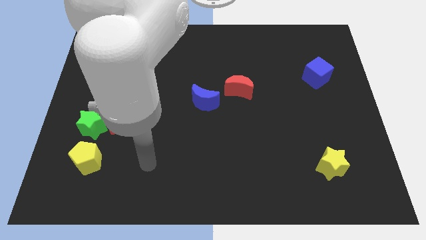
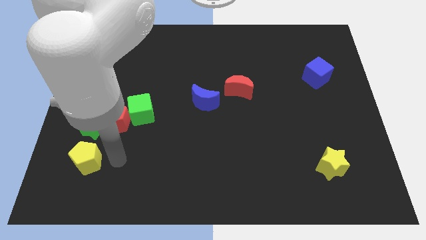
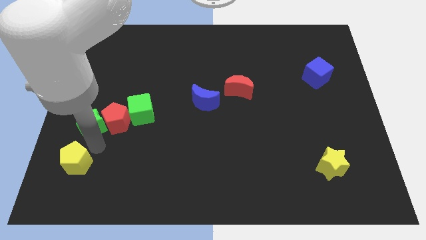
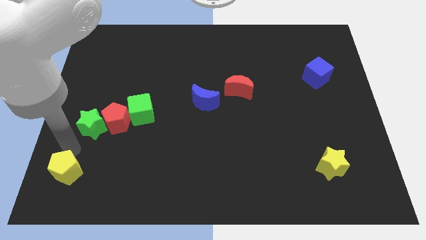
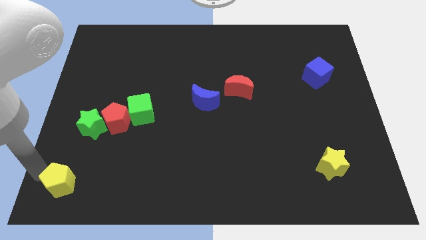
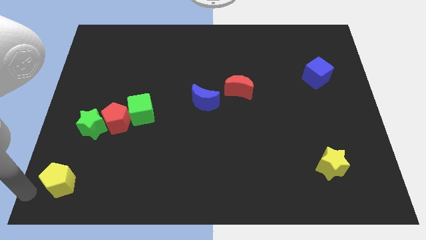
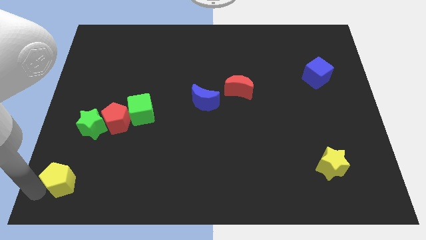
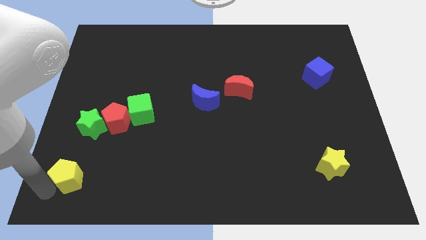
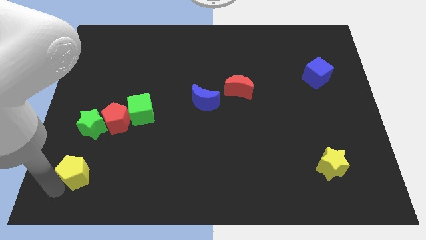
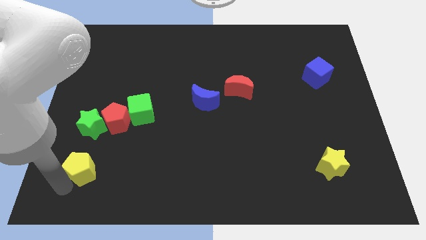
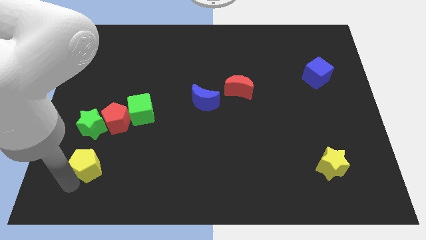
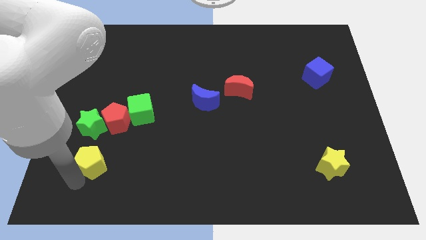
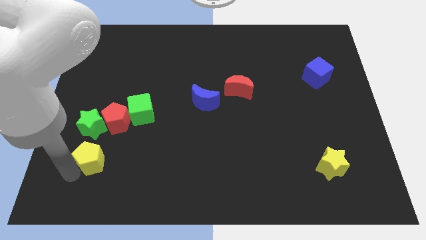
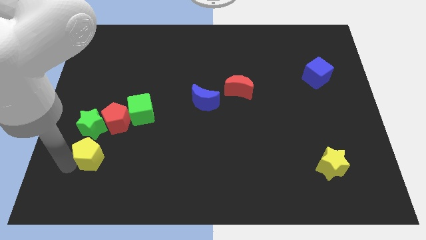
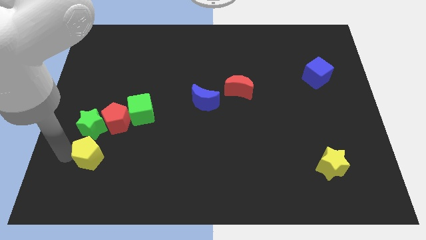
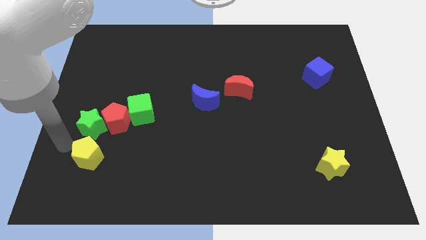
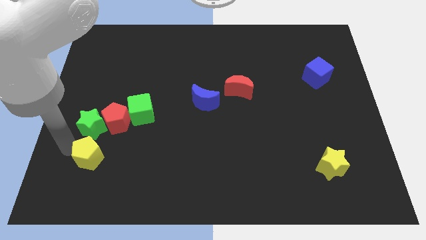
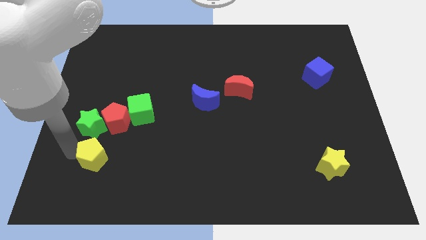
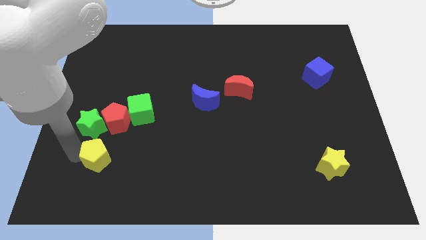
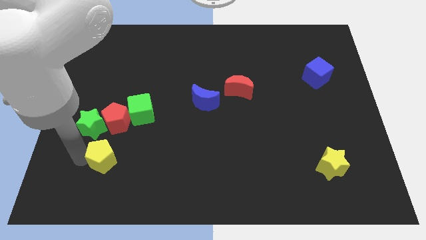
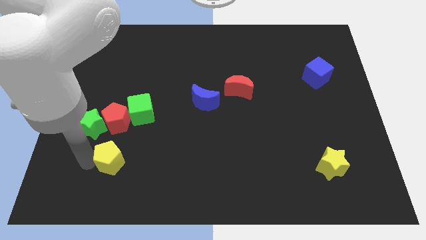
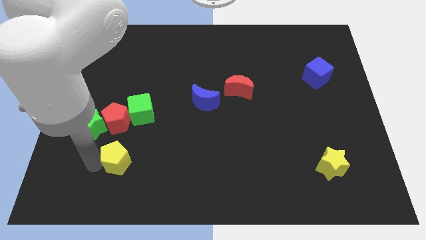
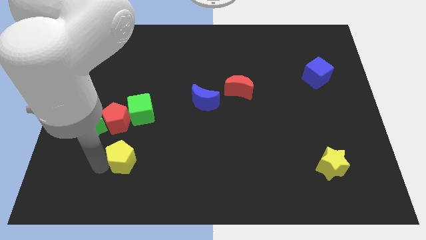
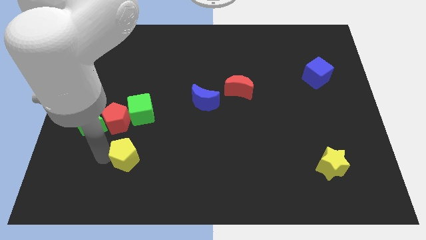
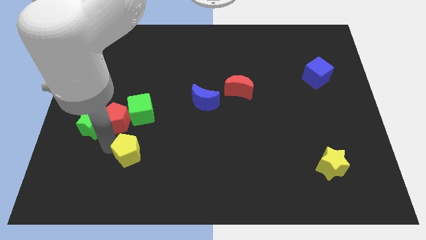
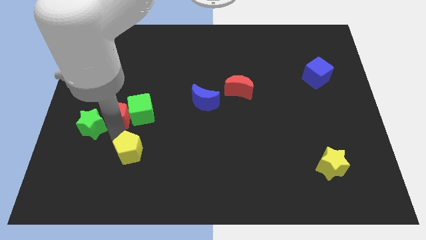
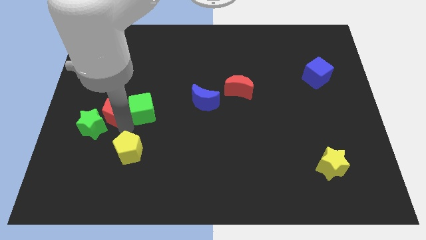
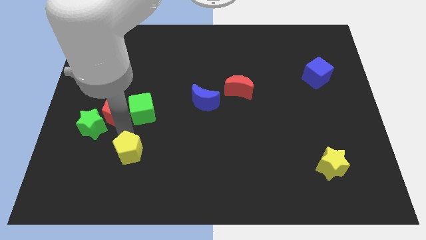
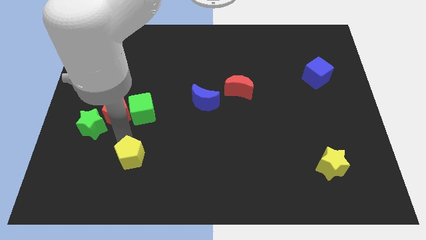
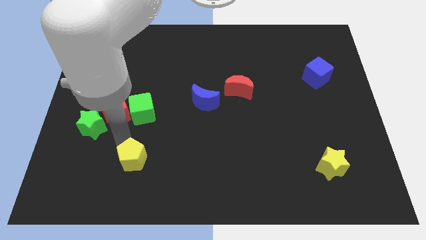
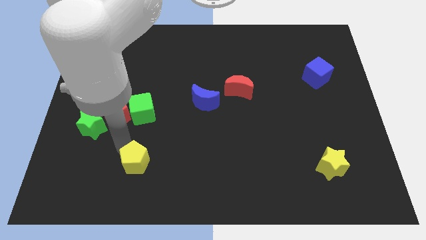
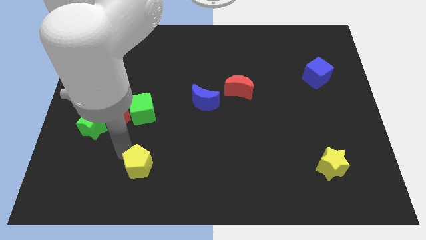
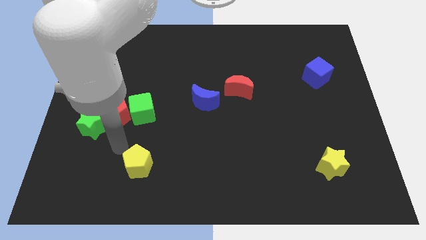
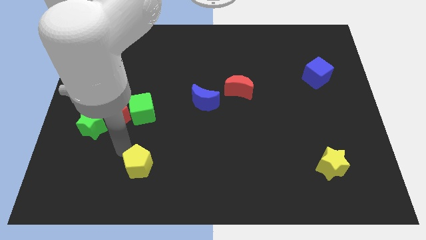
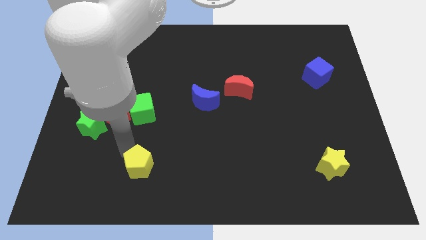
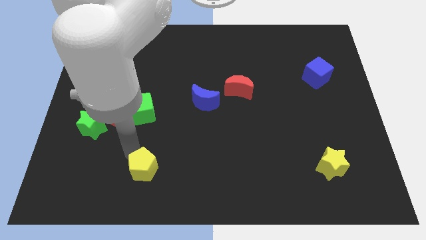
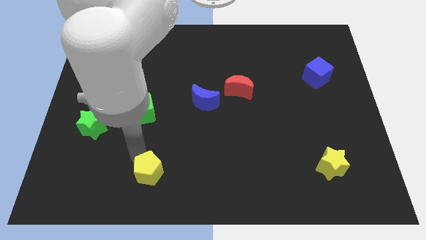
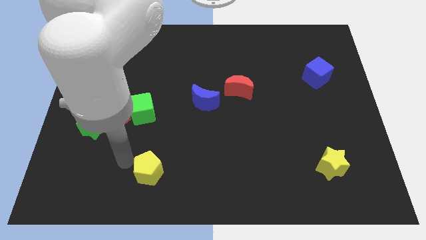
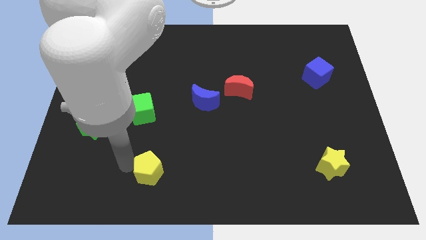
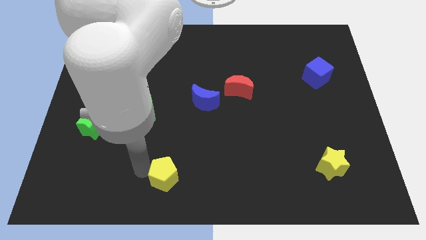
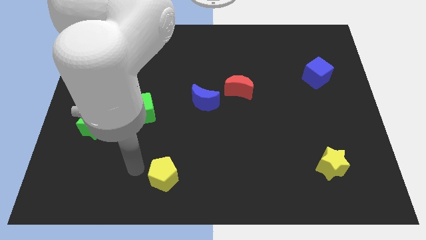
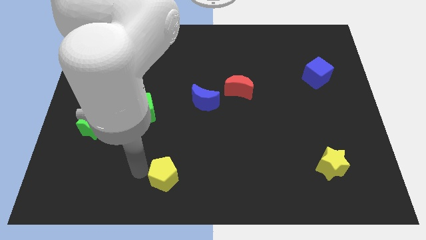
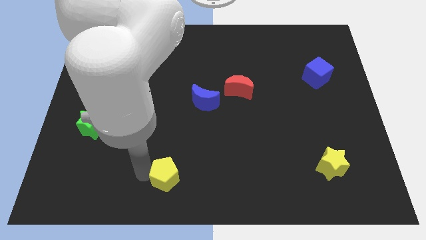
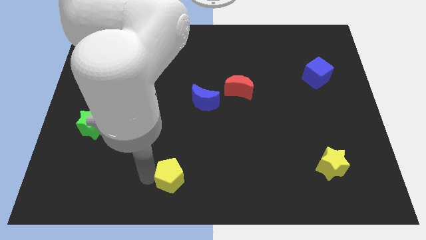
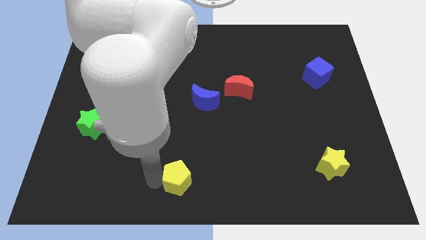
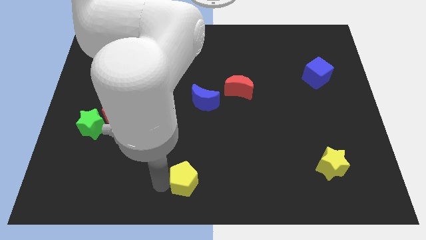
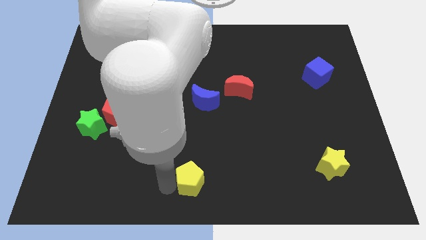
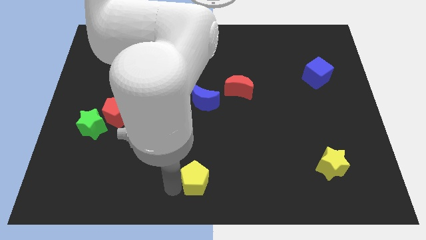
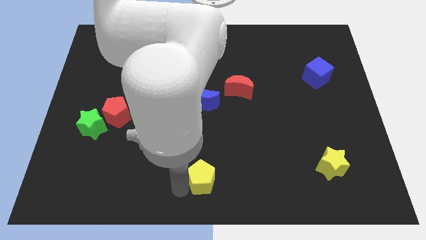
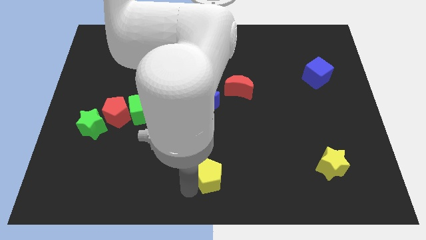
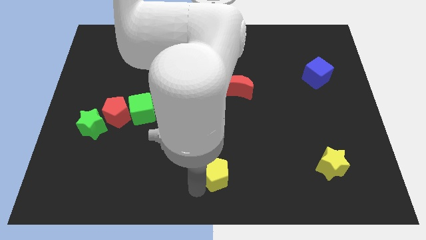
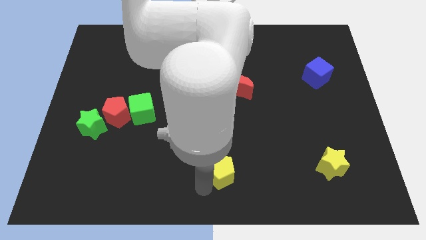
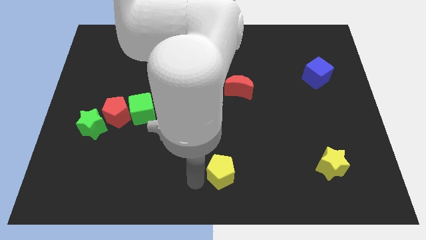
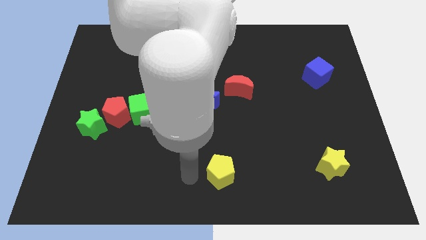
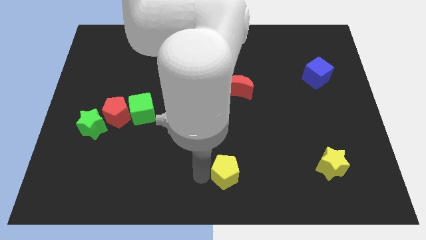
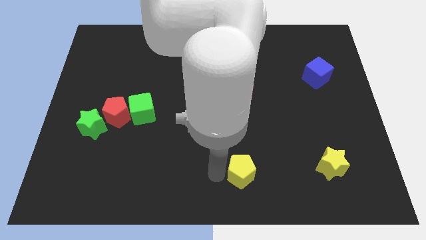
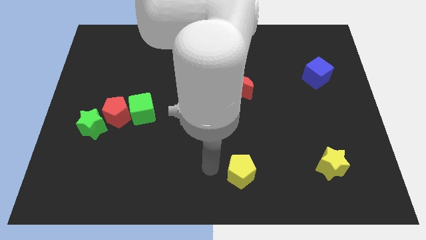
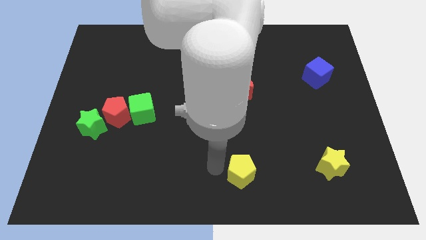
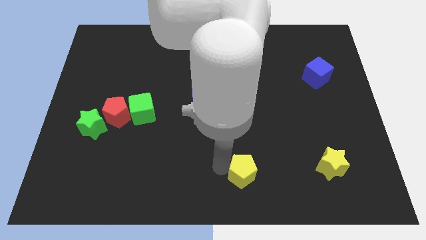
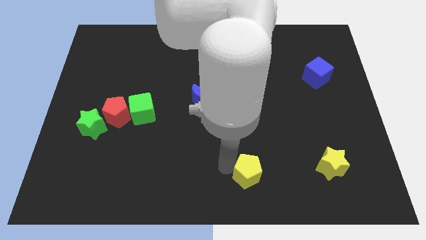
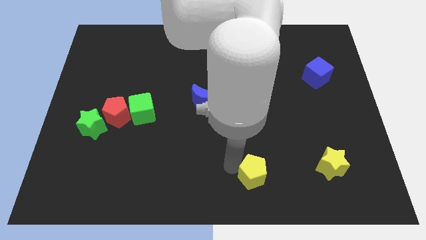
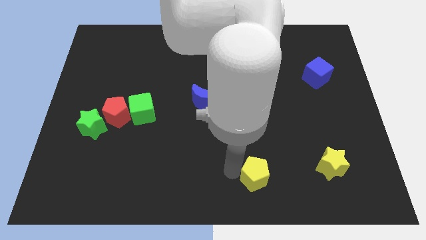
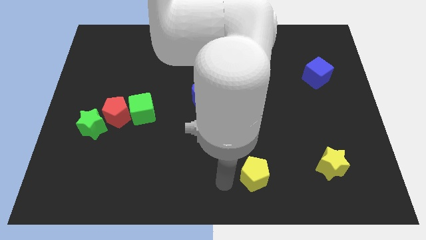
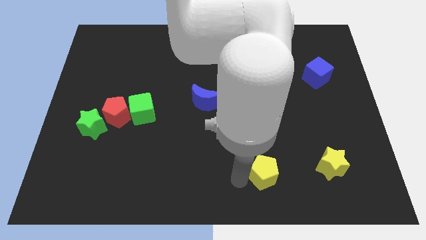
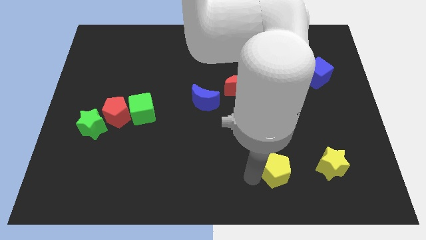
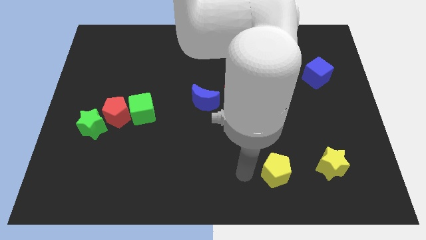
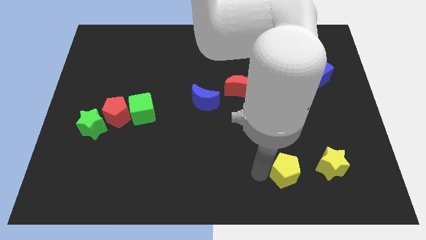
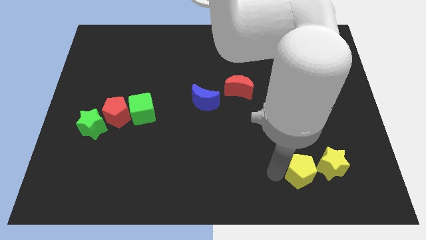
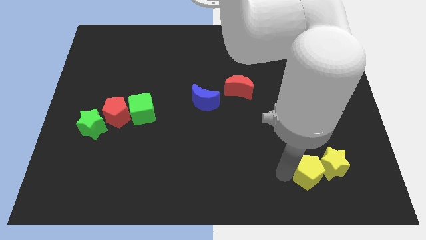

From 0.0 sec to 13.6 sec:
slide the yellow pentagon close to the yellow star

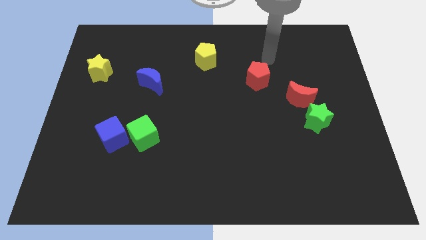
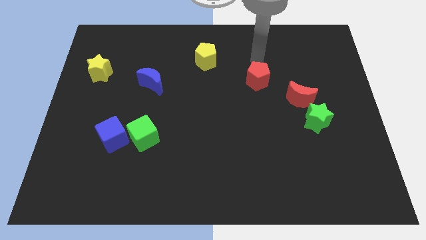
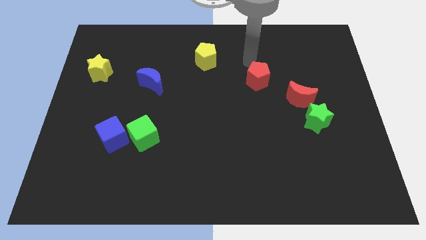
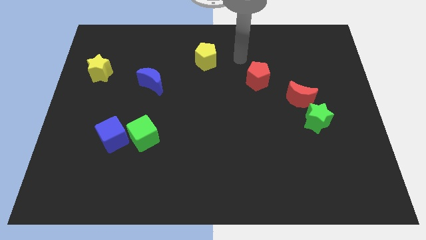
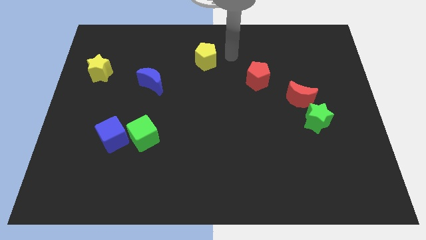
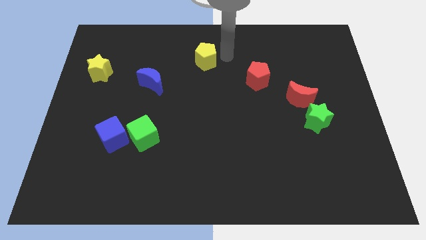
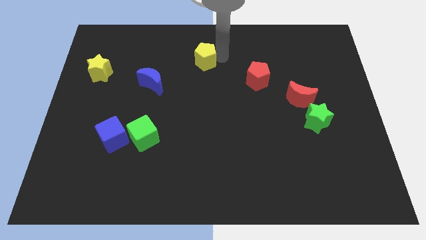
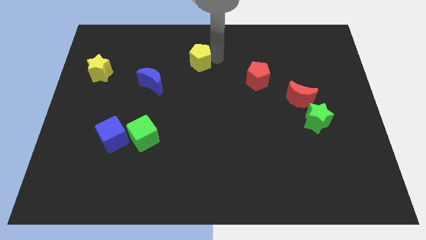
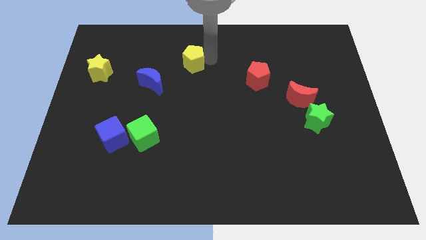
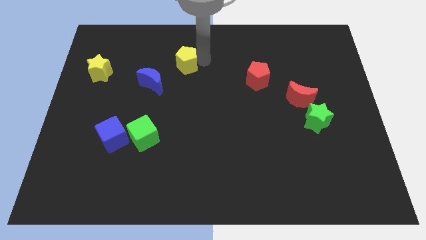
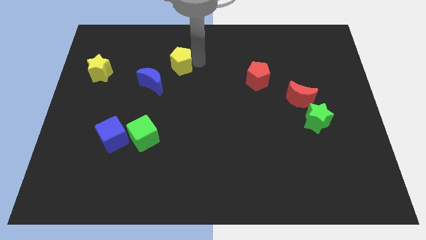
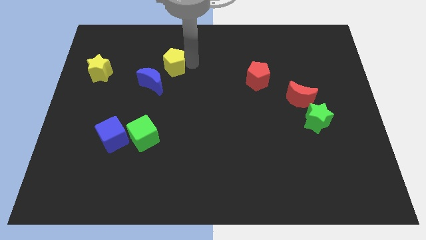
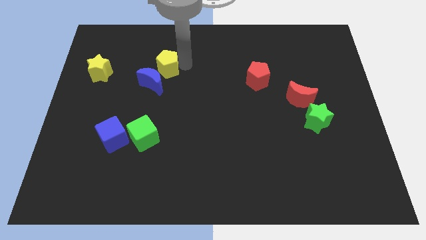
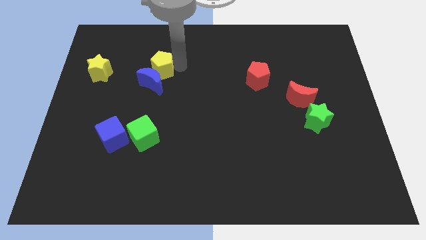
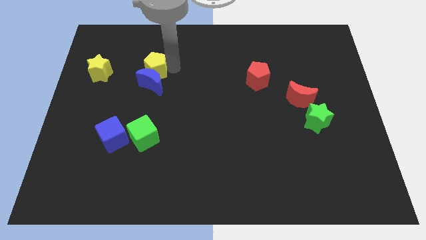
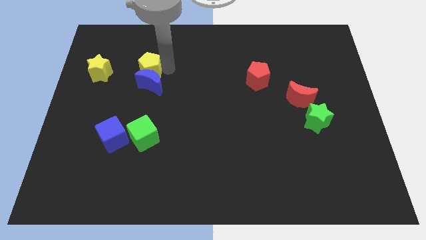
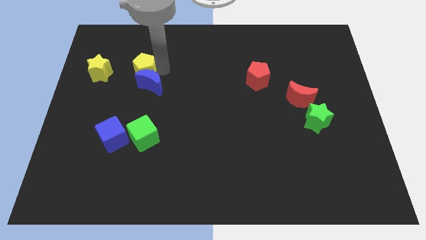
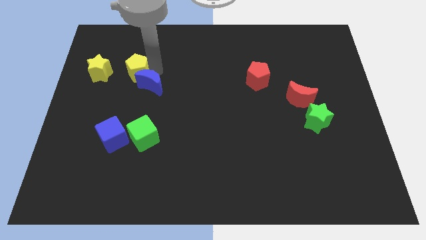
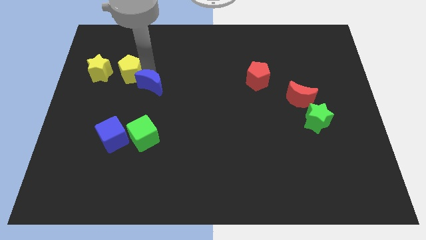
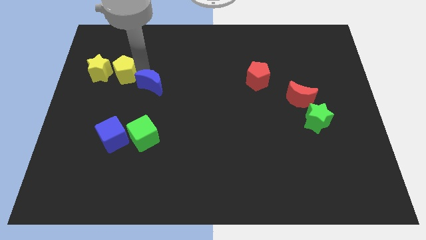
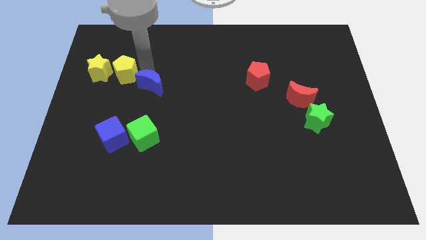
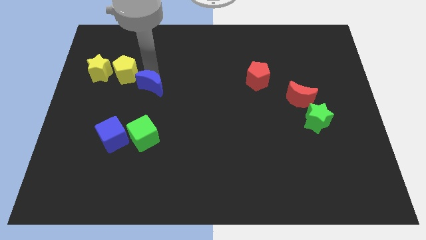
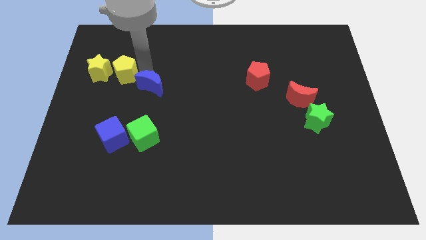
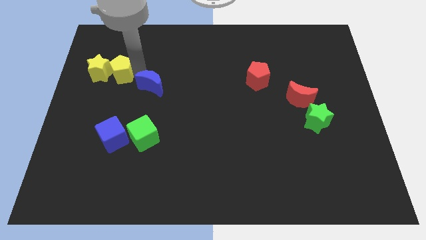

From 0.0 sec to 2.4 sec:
move the yellow pentagon towards the yellow star
